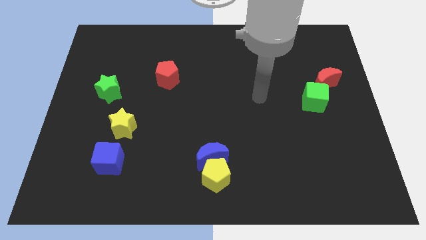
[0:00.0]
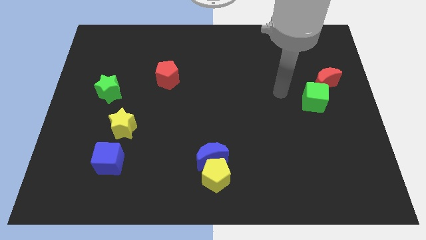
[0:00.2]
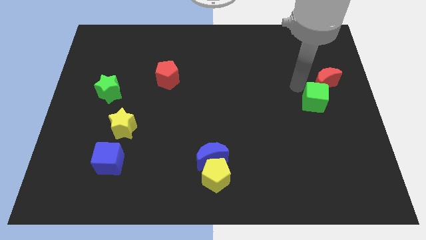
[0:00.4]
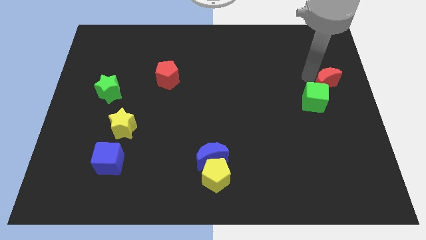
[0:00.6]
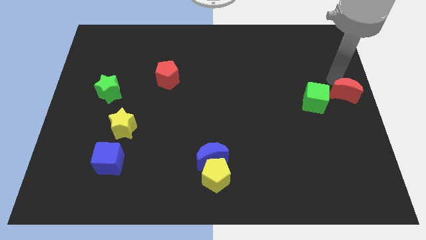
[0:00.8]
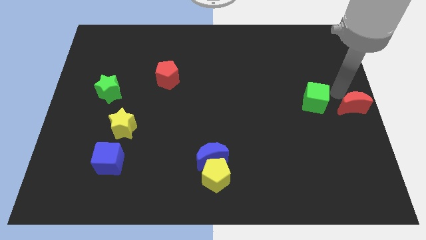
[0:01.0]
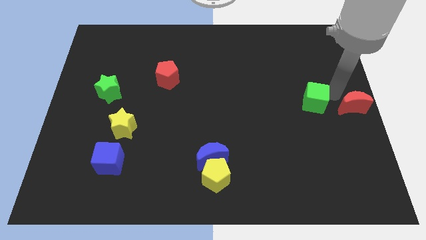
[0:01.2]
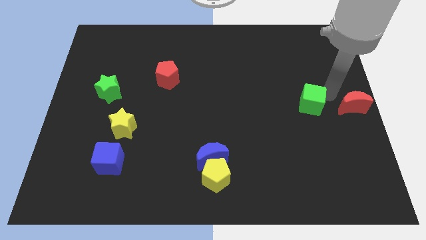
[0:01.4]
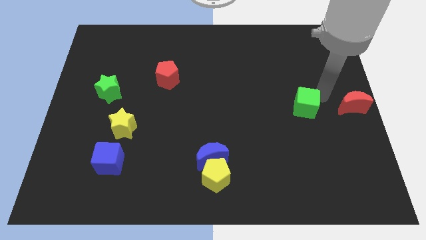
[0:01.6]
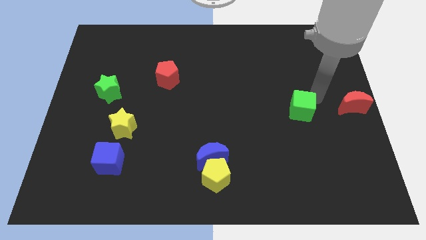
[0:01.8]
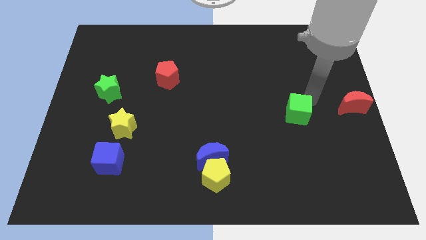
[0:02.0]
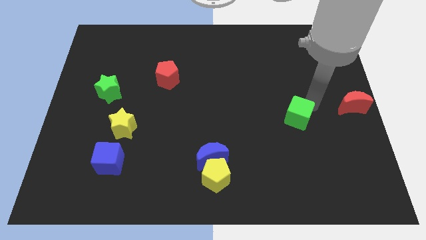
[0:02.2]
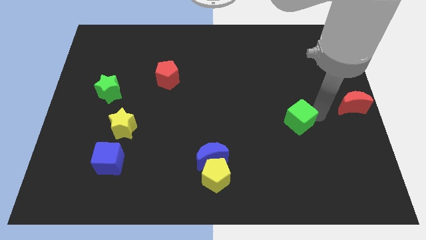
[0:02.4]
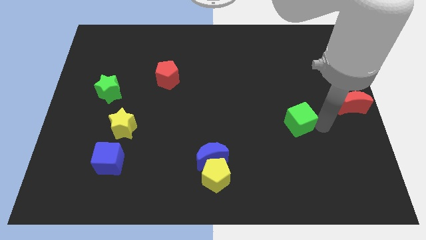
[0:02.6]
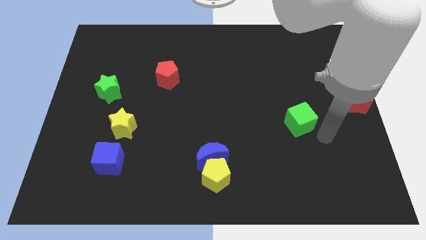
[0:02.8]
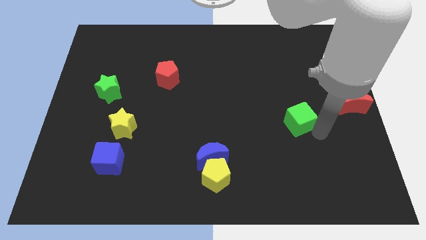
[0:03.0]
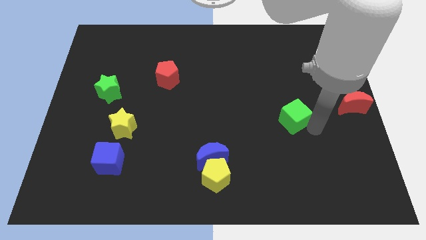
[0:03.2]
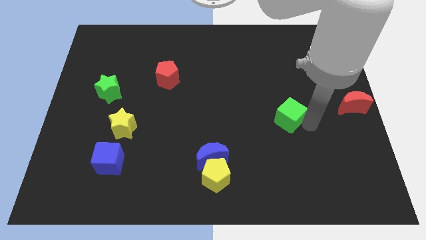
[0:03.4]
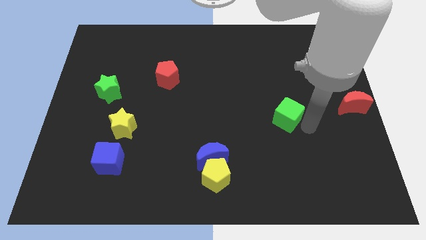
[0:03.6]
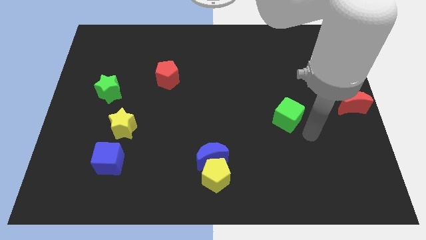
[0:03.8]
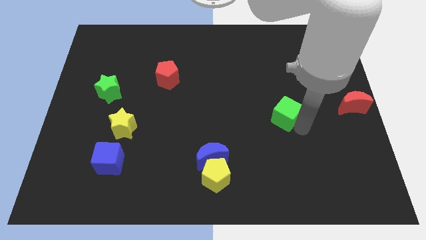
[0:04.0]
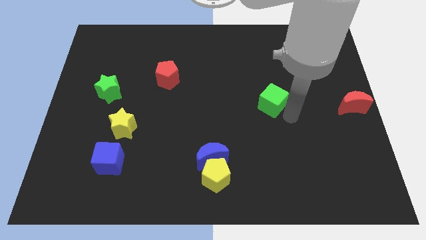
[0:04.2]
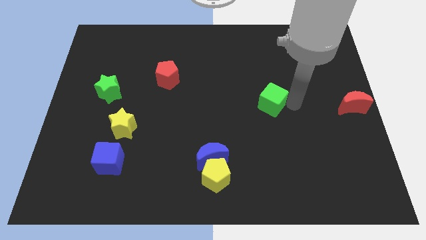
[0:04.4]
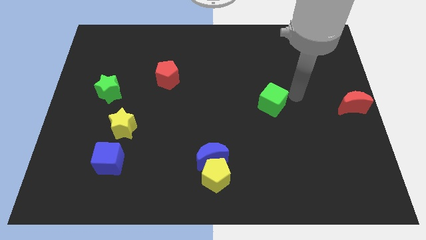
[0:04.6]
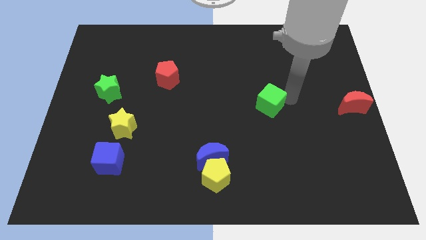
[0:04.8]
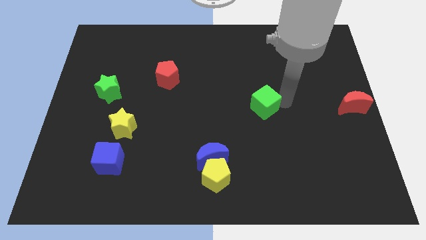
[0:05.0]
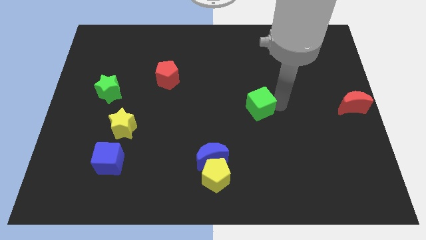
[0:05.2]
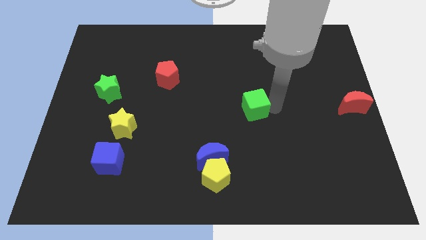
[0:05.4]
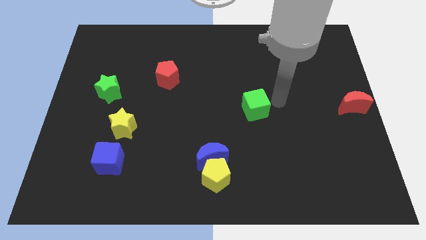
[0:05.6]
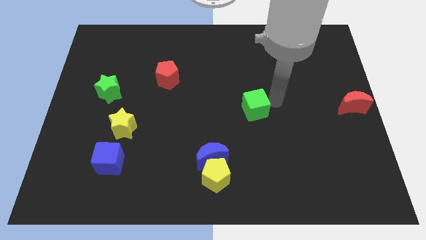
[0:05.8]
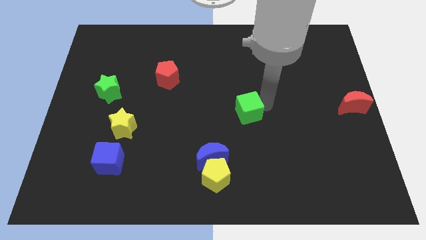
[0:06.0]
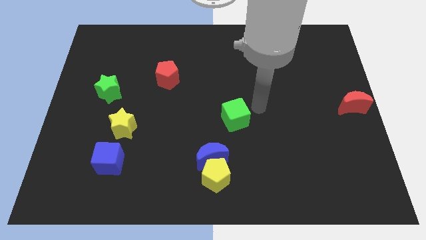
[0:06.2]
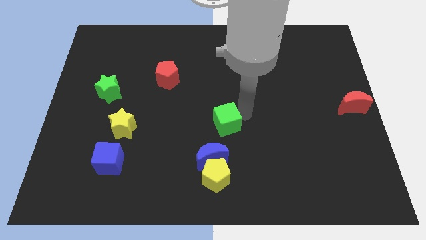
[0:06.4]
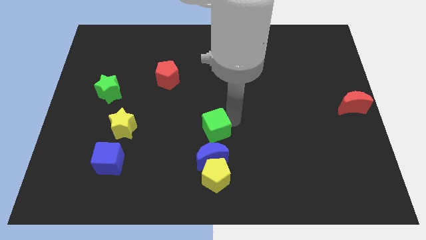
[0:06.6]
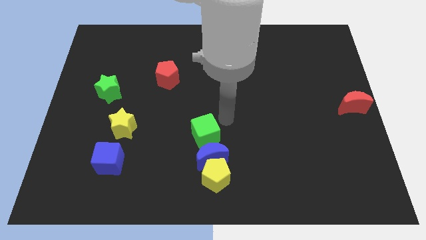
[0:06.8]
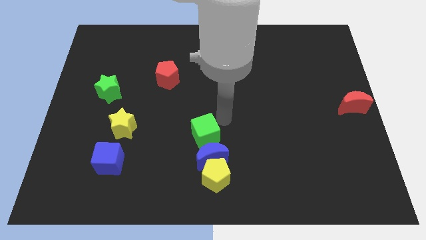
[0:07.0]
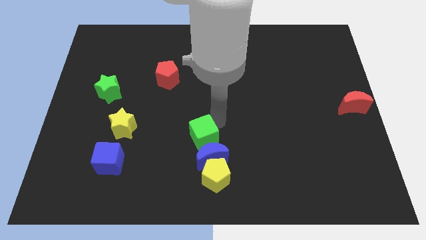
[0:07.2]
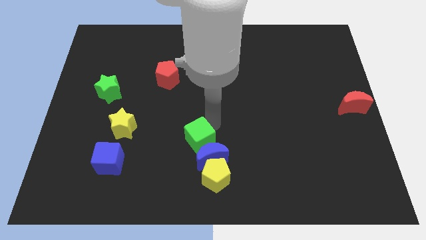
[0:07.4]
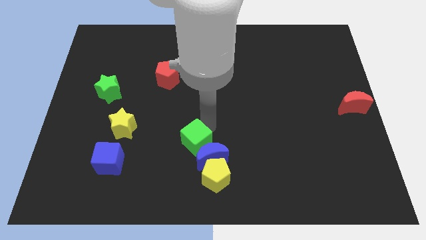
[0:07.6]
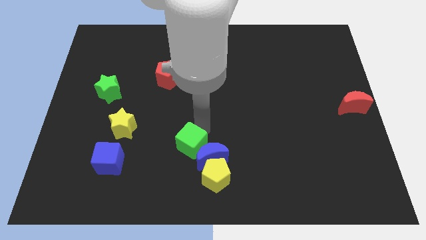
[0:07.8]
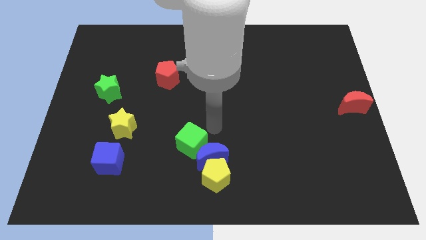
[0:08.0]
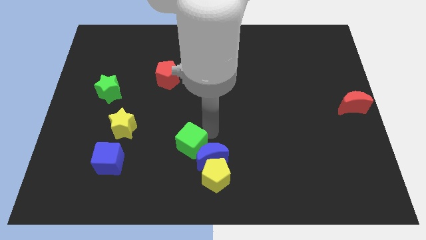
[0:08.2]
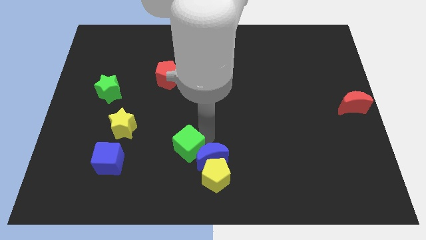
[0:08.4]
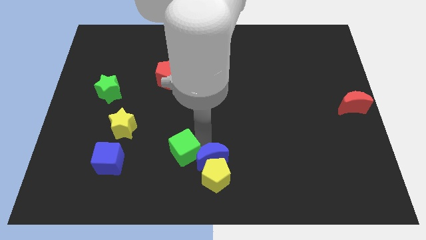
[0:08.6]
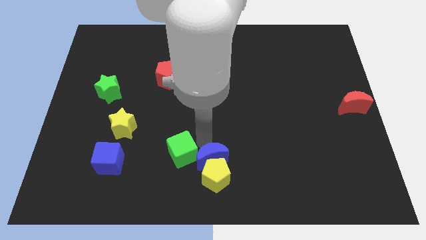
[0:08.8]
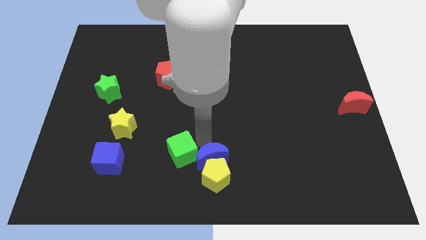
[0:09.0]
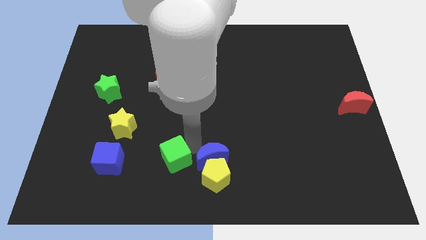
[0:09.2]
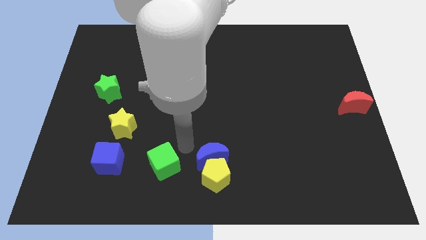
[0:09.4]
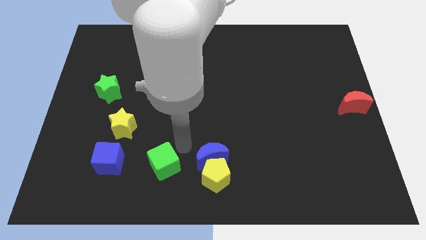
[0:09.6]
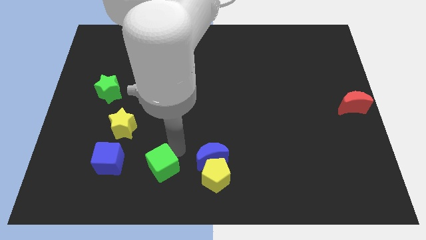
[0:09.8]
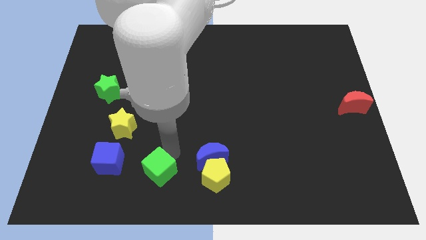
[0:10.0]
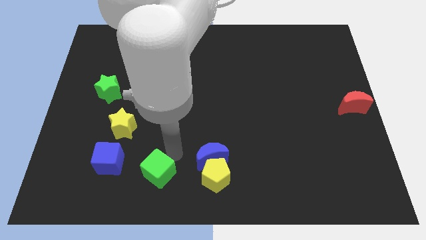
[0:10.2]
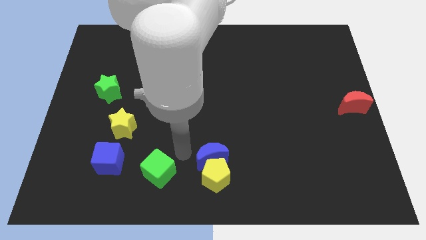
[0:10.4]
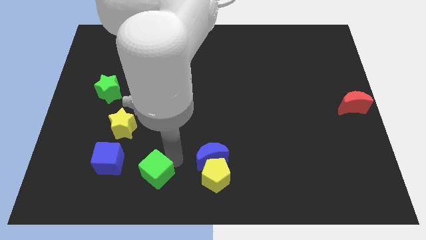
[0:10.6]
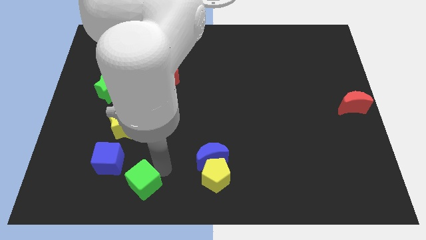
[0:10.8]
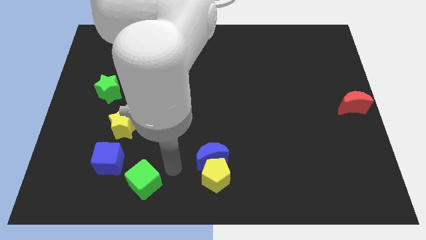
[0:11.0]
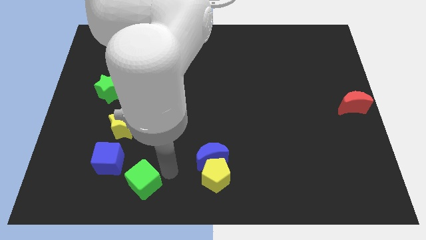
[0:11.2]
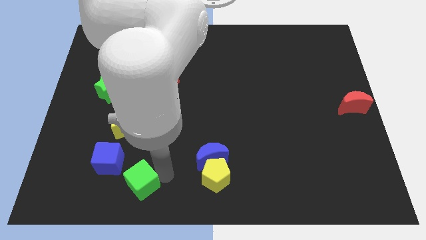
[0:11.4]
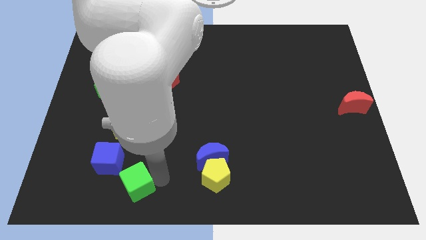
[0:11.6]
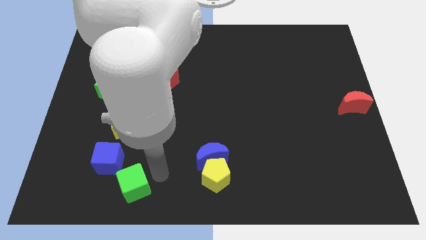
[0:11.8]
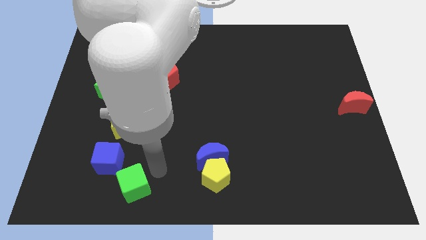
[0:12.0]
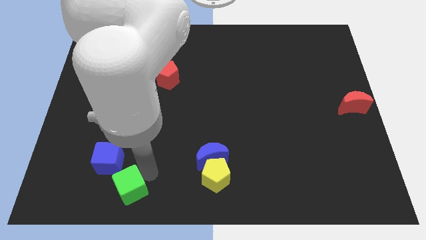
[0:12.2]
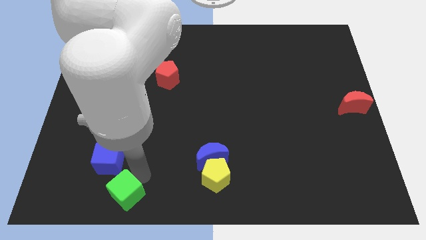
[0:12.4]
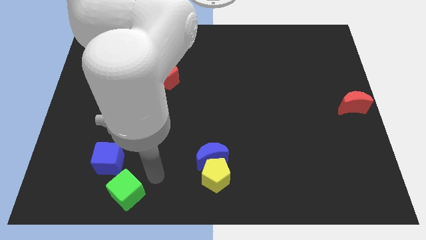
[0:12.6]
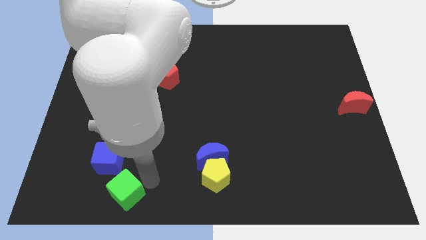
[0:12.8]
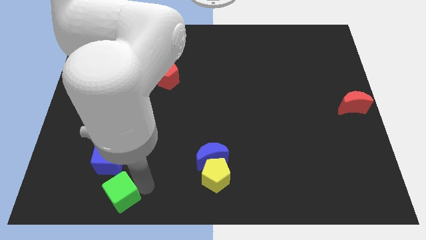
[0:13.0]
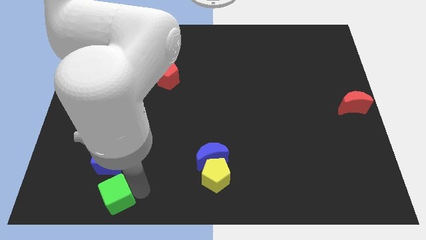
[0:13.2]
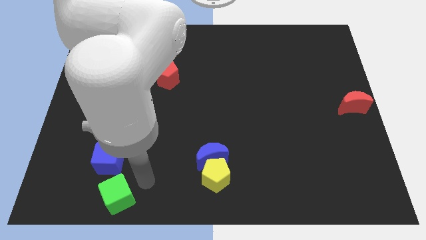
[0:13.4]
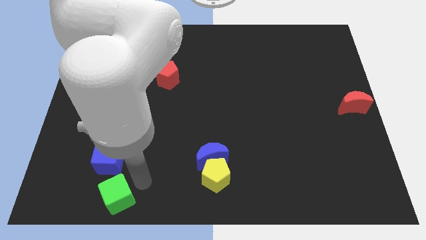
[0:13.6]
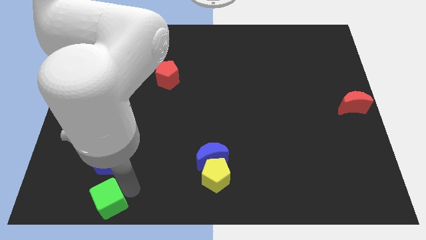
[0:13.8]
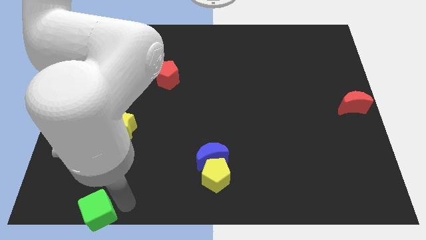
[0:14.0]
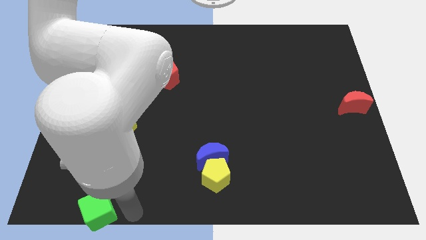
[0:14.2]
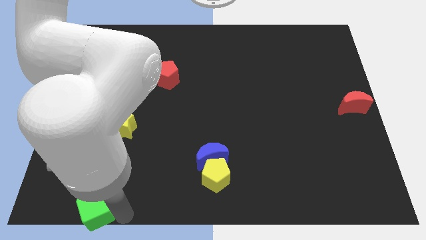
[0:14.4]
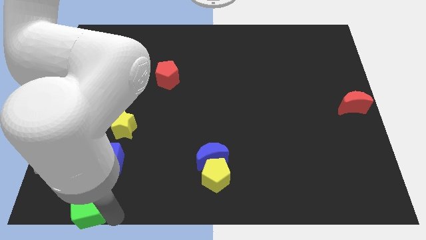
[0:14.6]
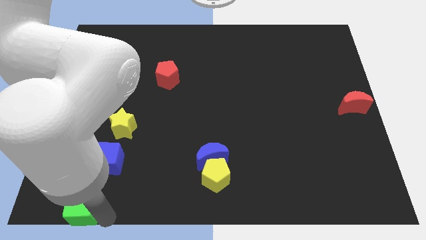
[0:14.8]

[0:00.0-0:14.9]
put the green cube to the bottom left of the board
